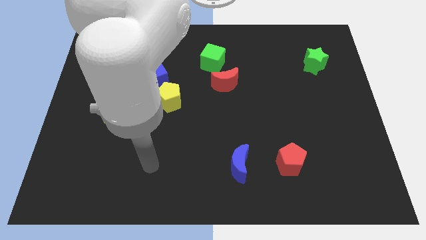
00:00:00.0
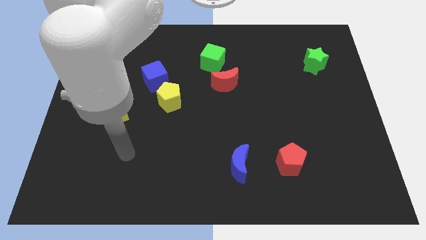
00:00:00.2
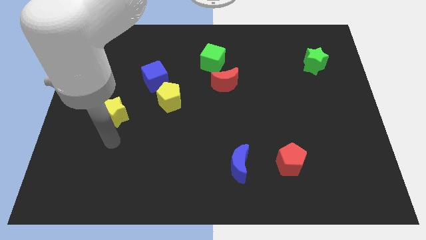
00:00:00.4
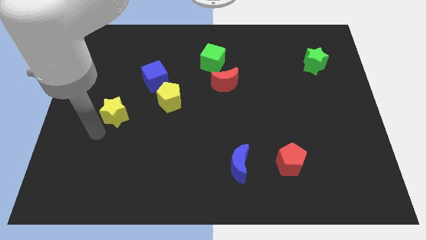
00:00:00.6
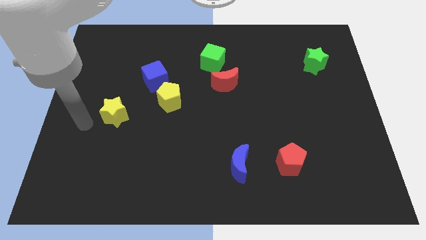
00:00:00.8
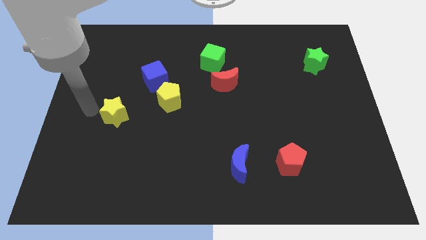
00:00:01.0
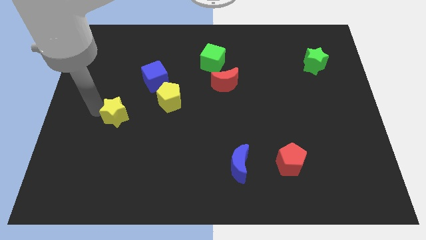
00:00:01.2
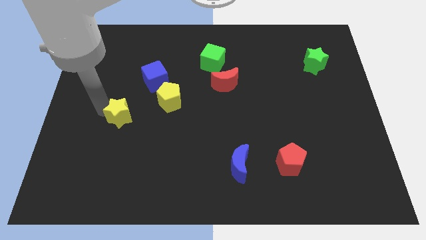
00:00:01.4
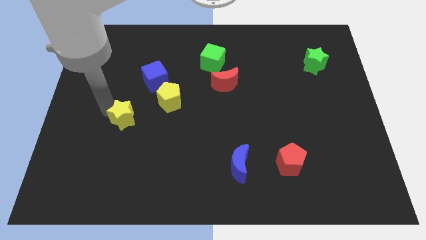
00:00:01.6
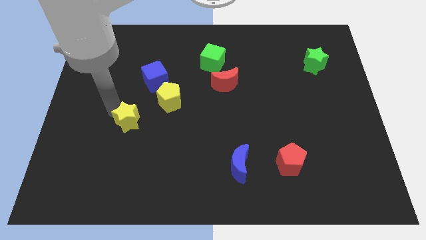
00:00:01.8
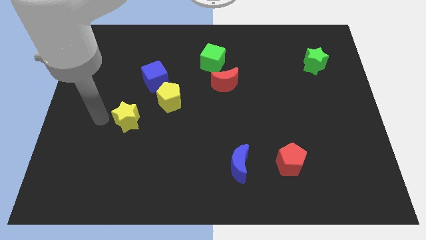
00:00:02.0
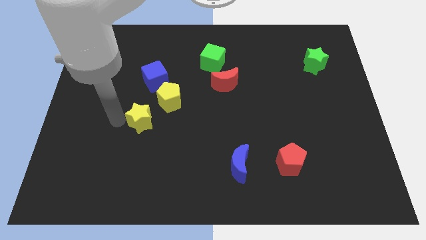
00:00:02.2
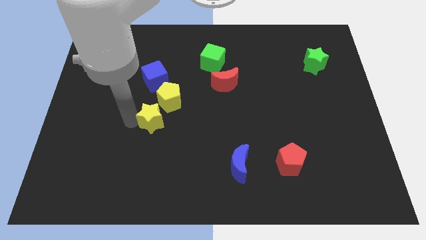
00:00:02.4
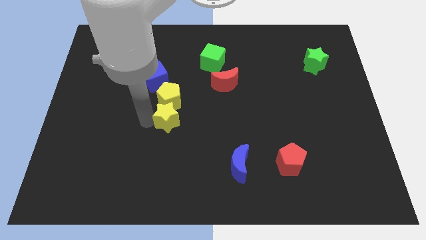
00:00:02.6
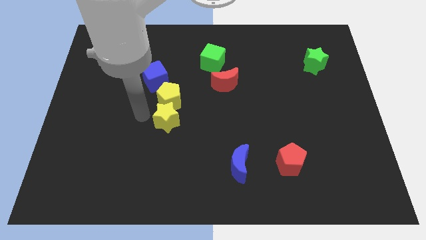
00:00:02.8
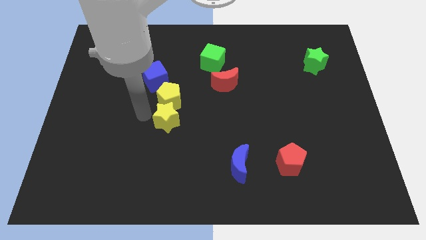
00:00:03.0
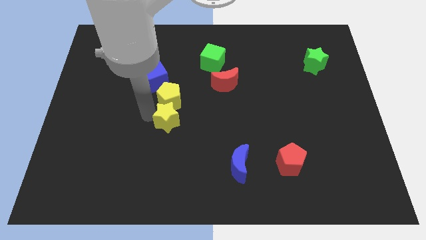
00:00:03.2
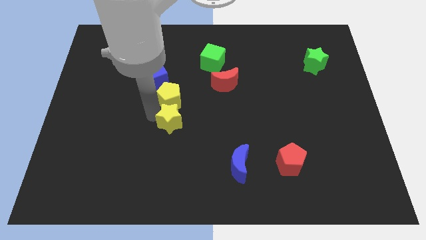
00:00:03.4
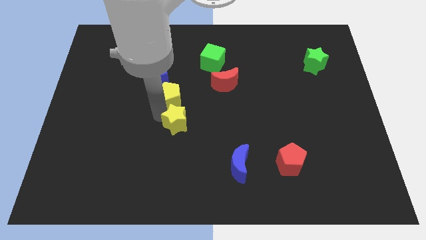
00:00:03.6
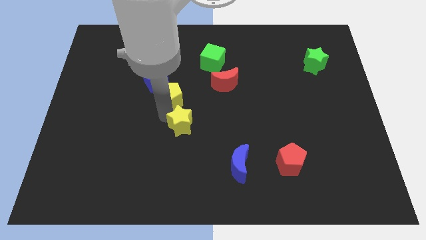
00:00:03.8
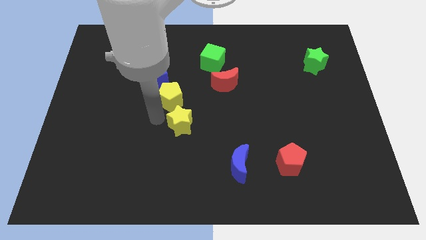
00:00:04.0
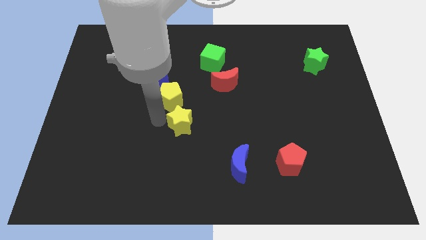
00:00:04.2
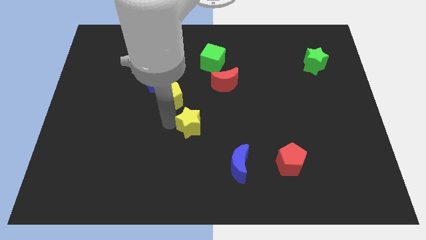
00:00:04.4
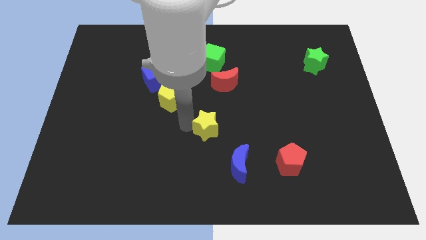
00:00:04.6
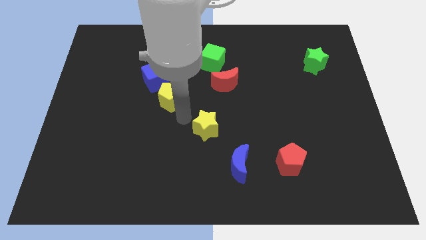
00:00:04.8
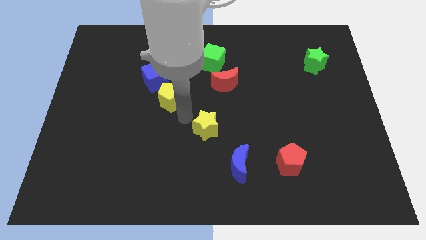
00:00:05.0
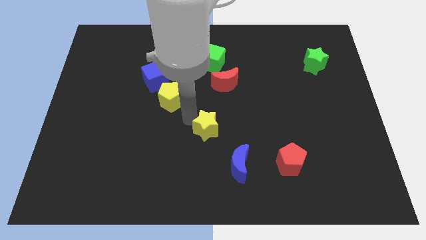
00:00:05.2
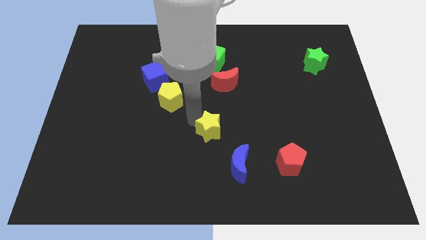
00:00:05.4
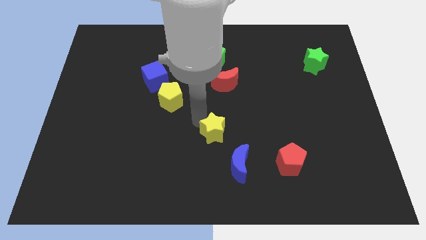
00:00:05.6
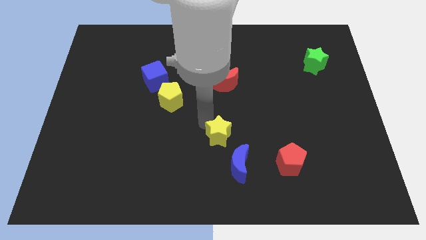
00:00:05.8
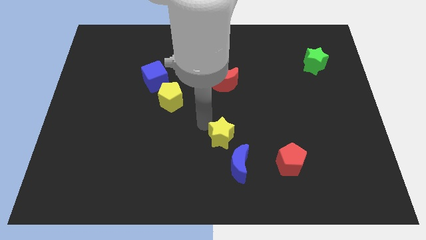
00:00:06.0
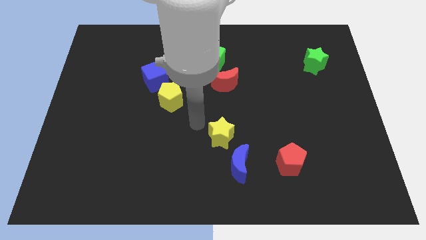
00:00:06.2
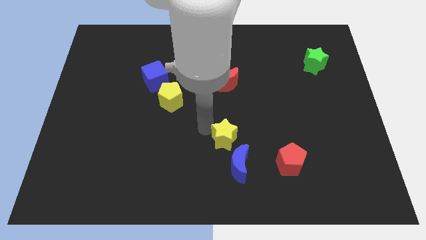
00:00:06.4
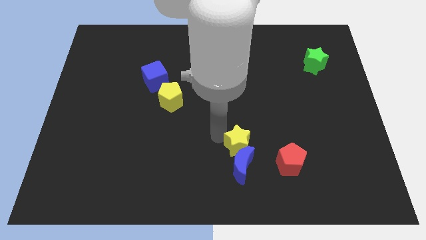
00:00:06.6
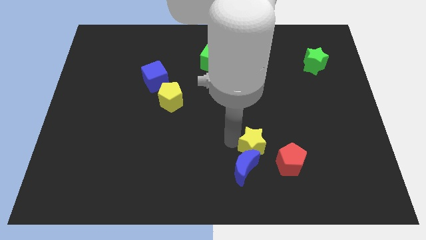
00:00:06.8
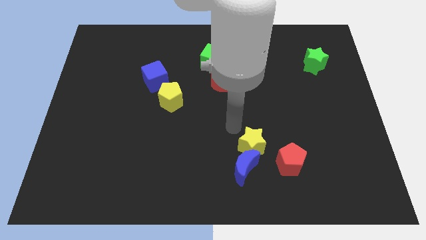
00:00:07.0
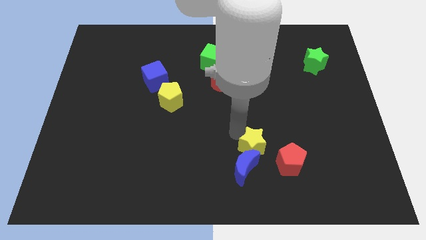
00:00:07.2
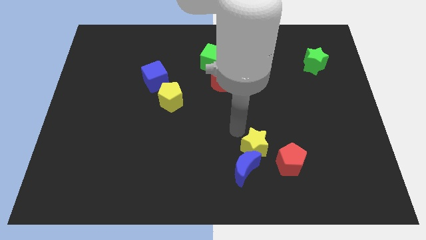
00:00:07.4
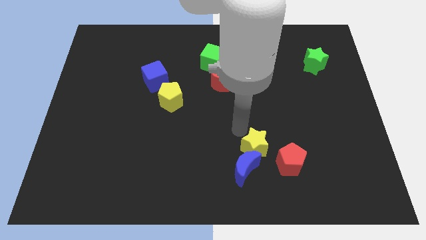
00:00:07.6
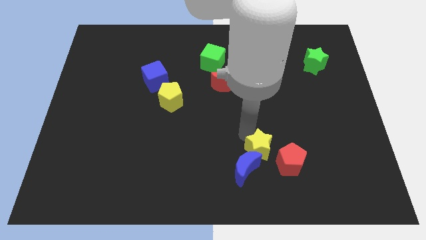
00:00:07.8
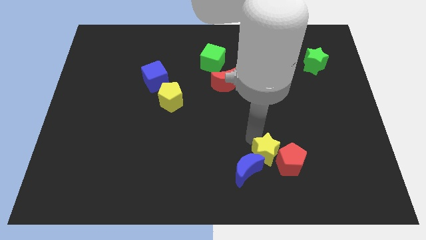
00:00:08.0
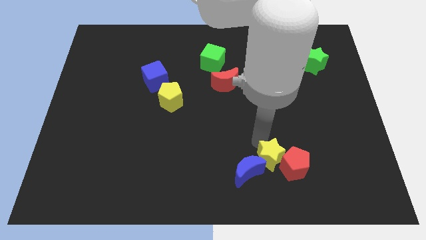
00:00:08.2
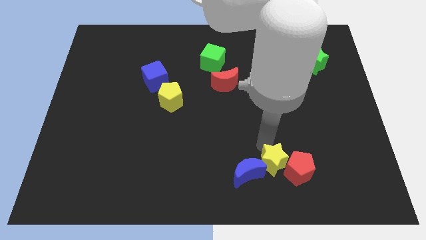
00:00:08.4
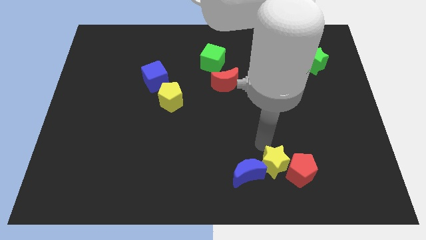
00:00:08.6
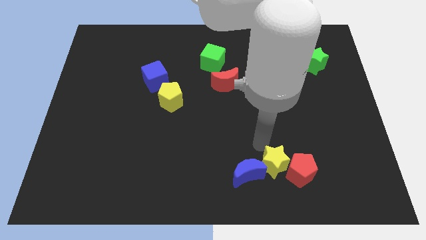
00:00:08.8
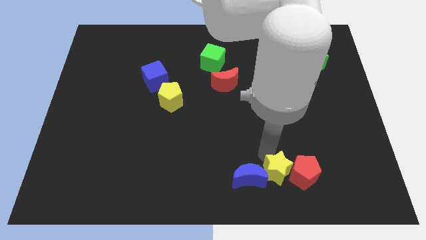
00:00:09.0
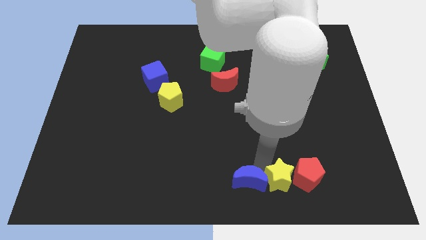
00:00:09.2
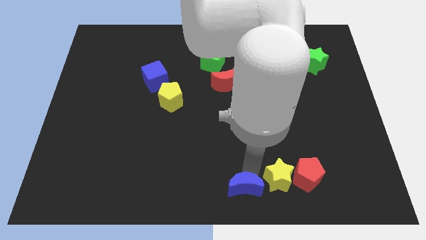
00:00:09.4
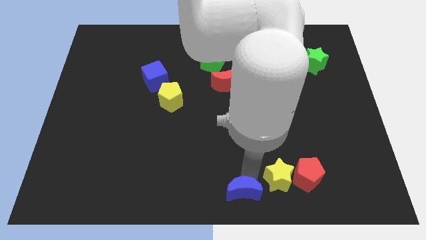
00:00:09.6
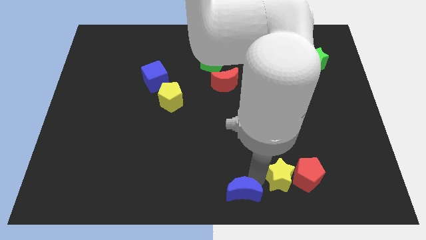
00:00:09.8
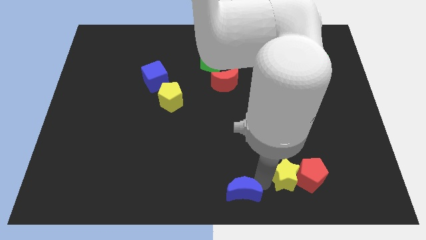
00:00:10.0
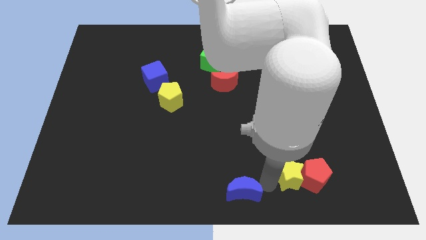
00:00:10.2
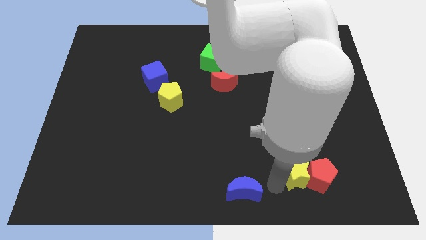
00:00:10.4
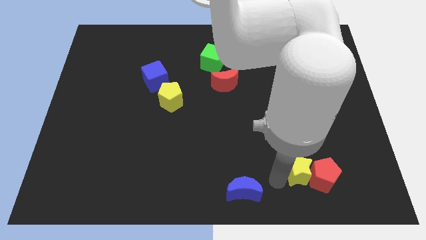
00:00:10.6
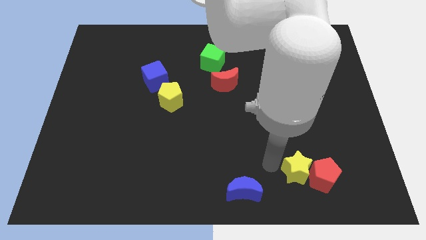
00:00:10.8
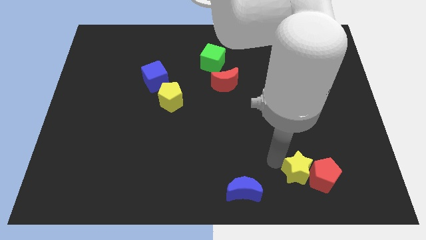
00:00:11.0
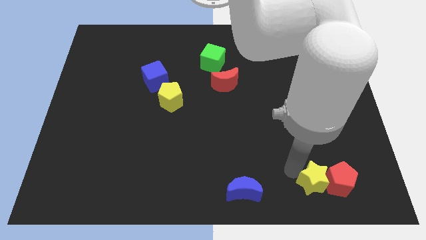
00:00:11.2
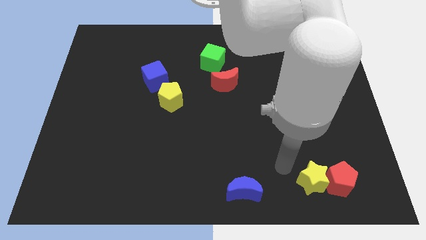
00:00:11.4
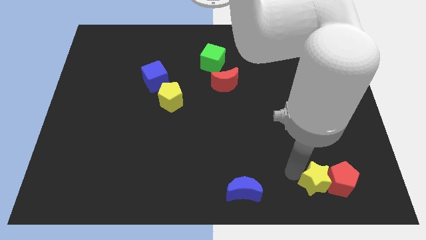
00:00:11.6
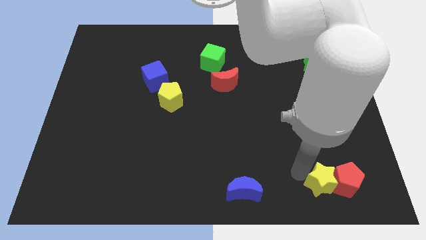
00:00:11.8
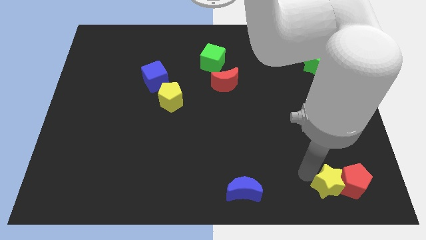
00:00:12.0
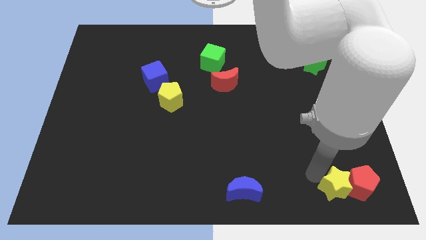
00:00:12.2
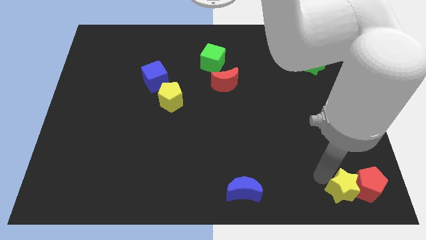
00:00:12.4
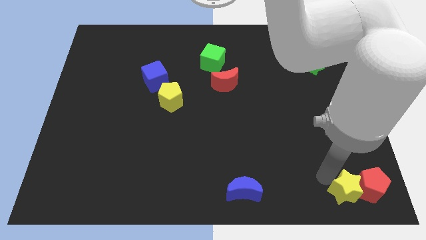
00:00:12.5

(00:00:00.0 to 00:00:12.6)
slide the yellow star to the bottom right corner
